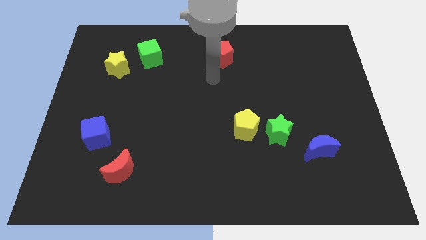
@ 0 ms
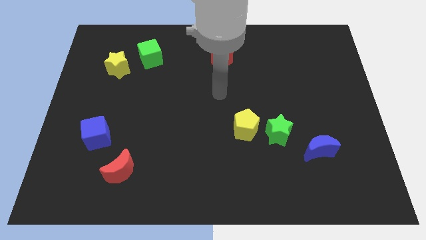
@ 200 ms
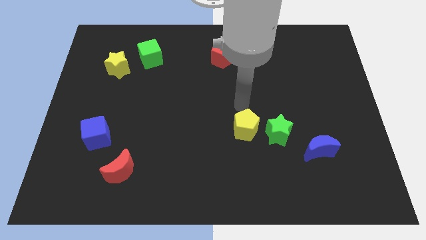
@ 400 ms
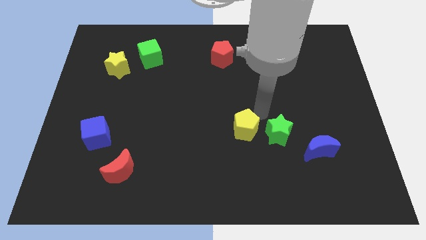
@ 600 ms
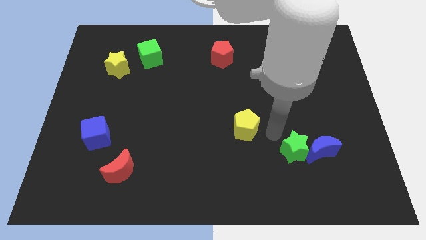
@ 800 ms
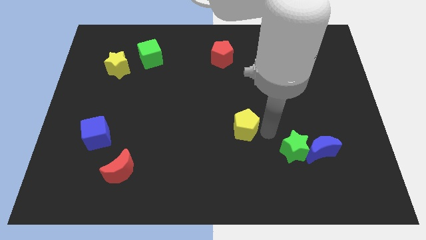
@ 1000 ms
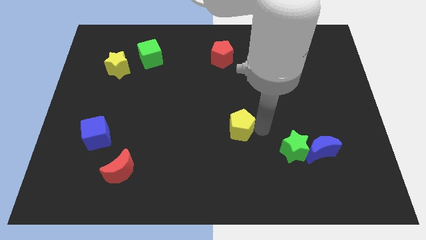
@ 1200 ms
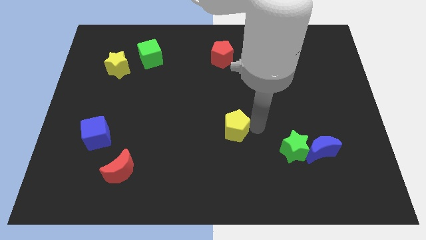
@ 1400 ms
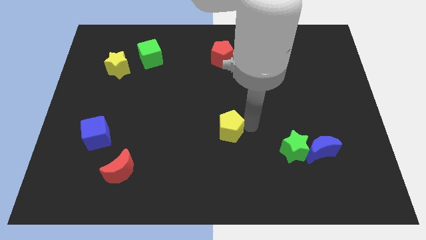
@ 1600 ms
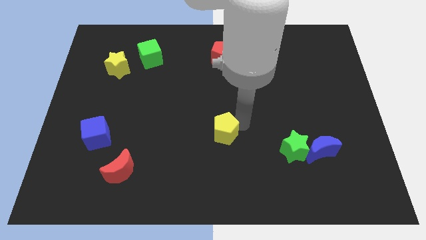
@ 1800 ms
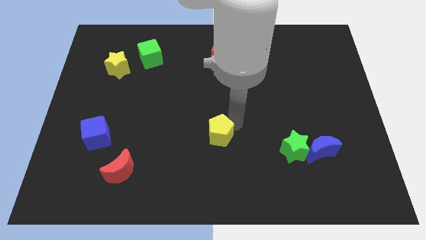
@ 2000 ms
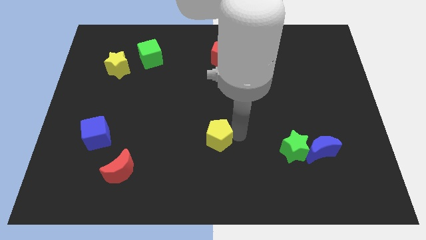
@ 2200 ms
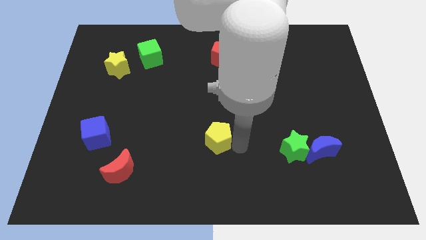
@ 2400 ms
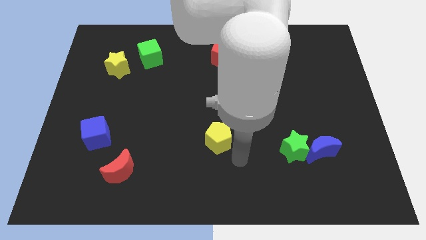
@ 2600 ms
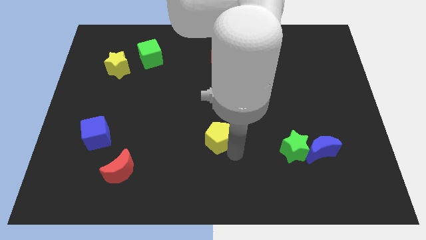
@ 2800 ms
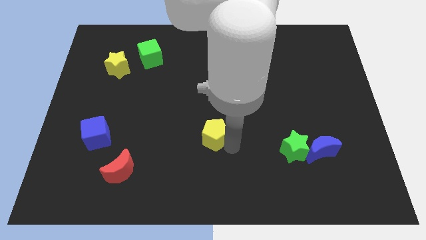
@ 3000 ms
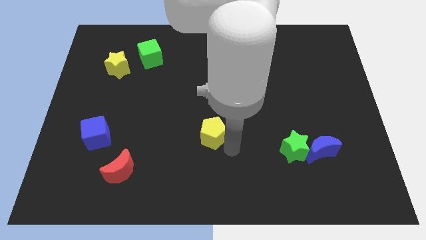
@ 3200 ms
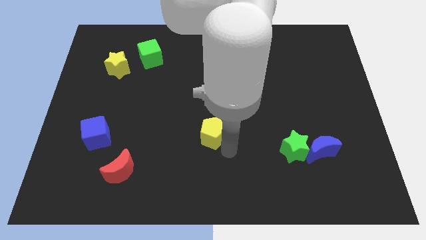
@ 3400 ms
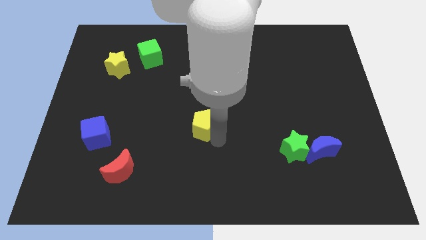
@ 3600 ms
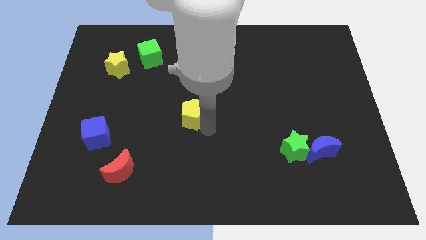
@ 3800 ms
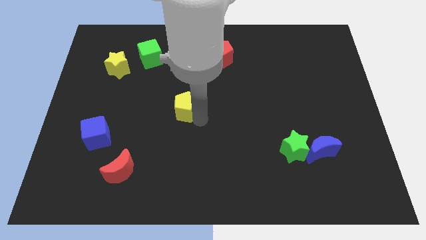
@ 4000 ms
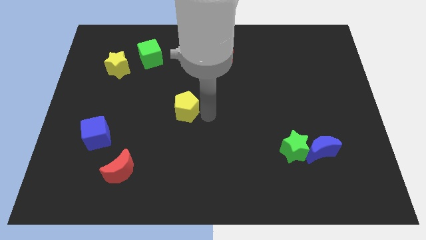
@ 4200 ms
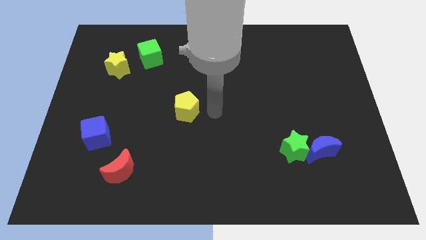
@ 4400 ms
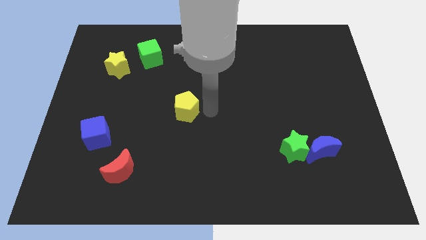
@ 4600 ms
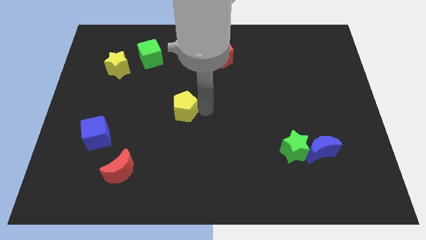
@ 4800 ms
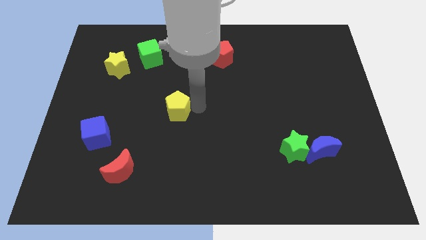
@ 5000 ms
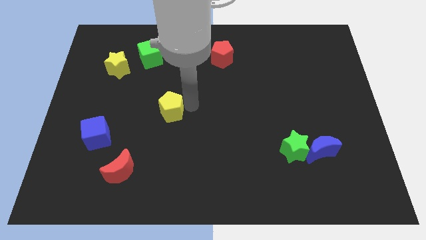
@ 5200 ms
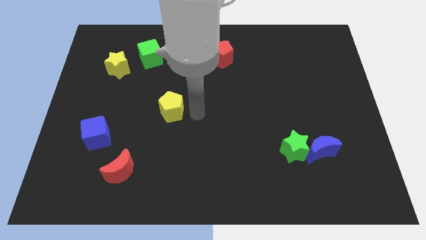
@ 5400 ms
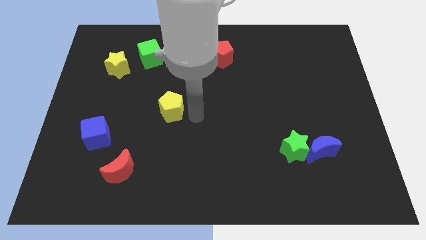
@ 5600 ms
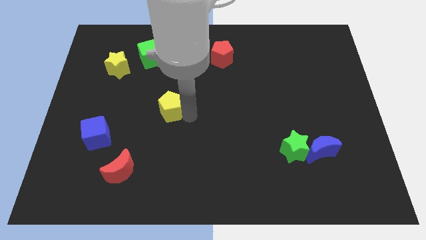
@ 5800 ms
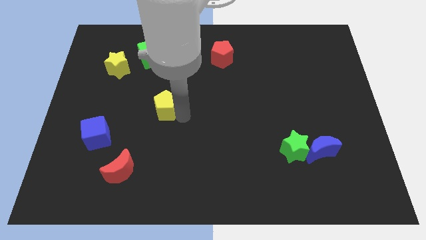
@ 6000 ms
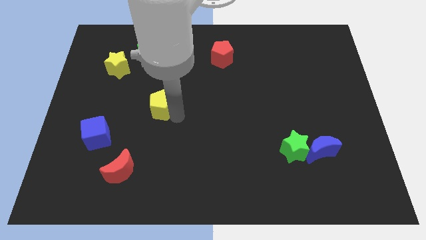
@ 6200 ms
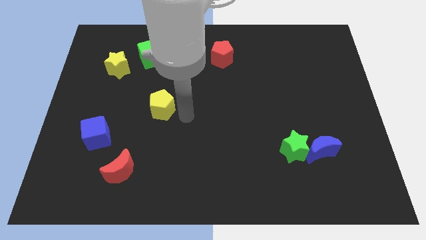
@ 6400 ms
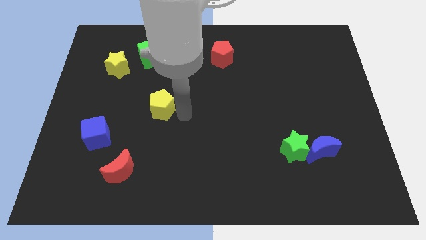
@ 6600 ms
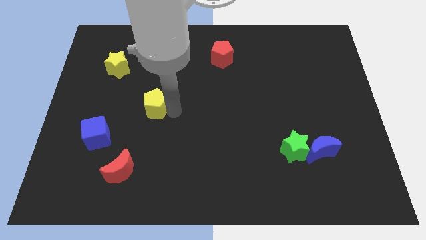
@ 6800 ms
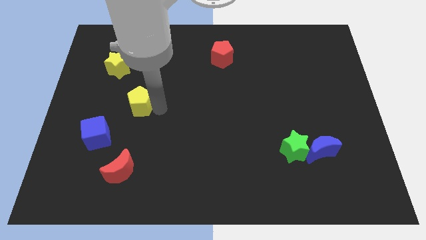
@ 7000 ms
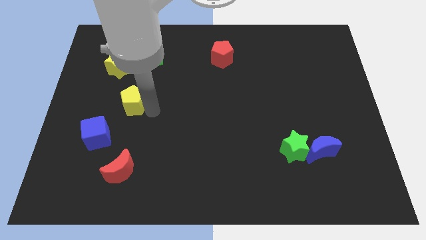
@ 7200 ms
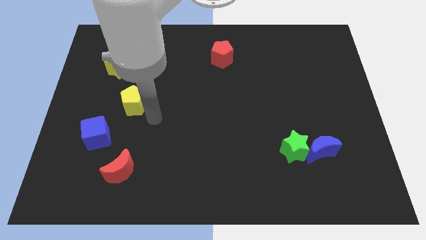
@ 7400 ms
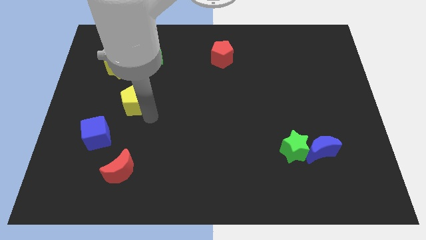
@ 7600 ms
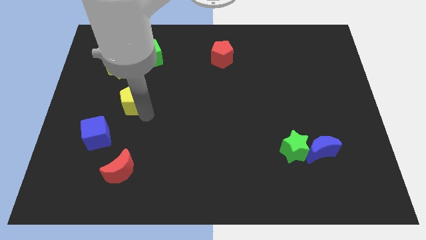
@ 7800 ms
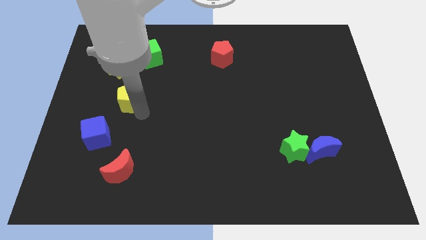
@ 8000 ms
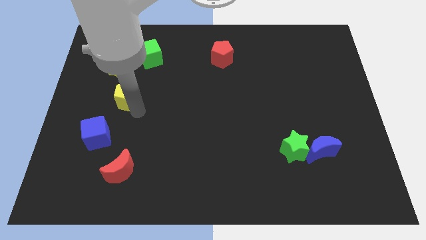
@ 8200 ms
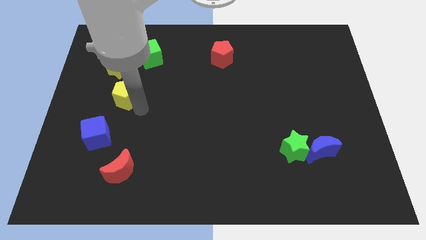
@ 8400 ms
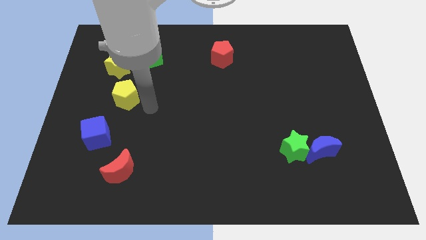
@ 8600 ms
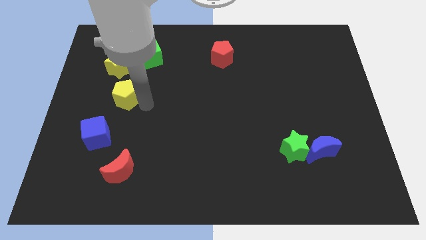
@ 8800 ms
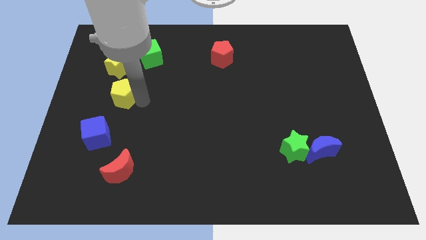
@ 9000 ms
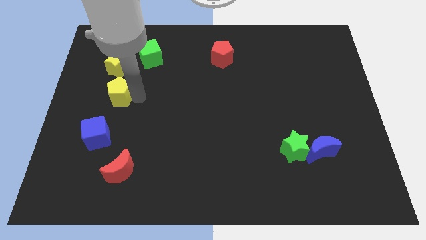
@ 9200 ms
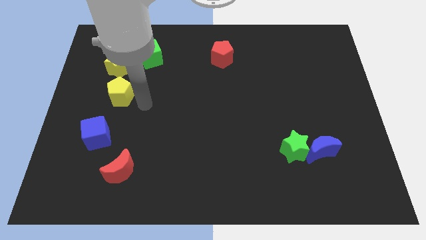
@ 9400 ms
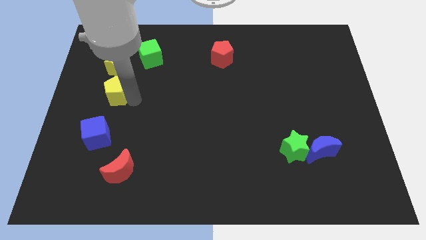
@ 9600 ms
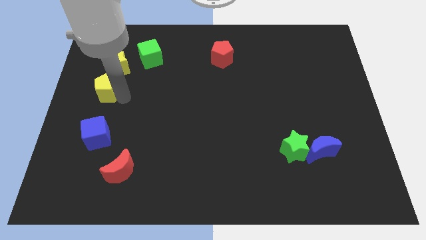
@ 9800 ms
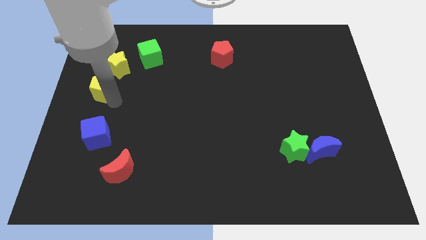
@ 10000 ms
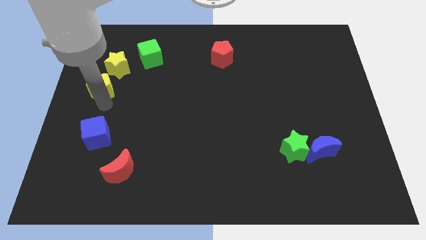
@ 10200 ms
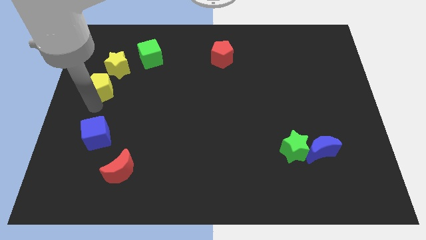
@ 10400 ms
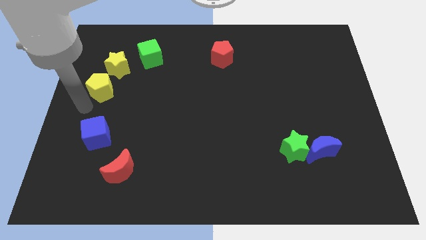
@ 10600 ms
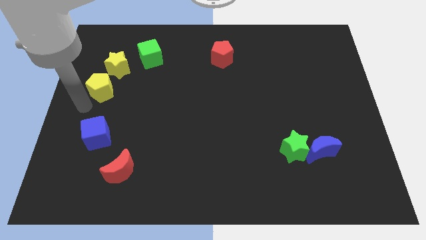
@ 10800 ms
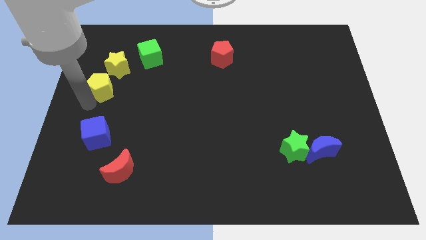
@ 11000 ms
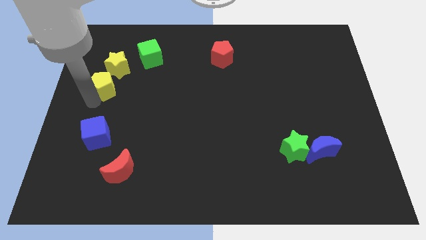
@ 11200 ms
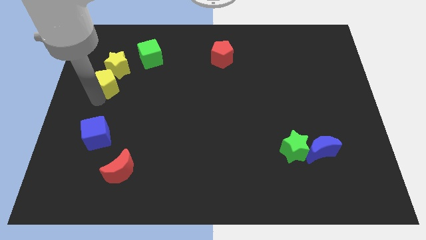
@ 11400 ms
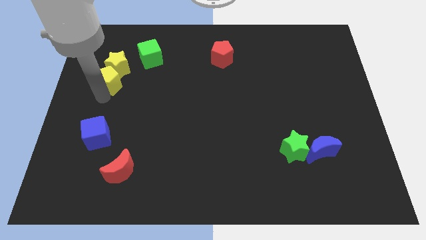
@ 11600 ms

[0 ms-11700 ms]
put the yellow pentagon diagonally down and to the left of the green cube

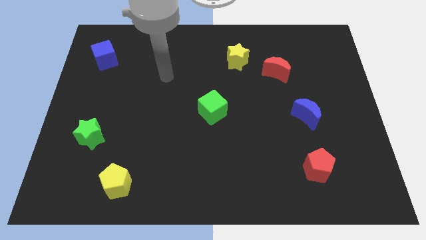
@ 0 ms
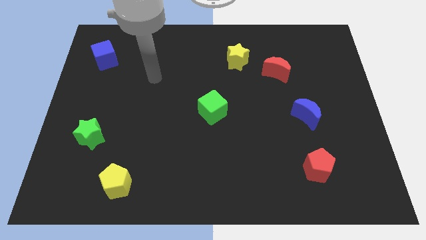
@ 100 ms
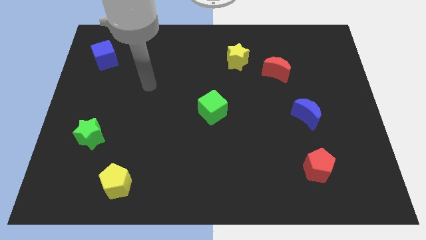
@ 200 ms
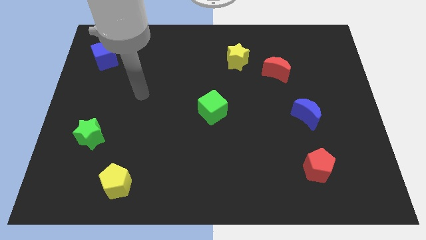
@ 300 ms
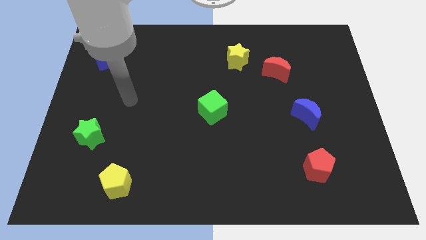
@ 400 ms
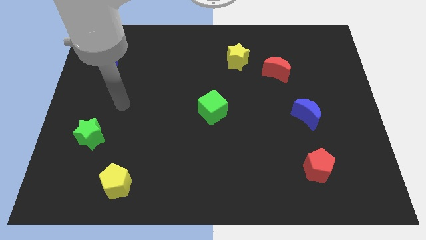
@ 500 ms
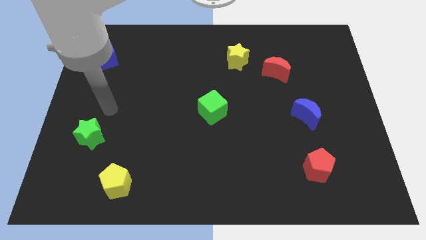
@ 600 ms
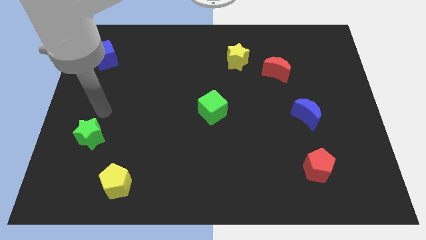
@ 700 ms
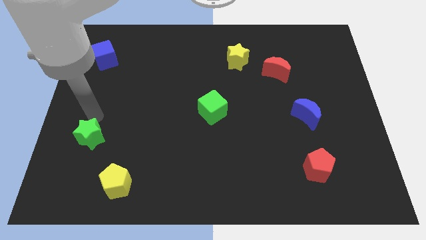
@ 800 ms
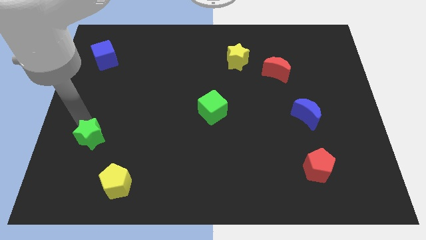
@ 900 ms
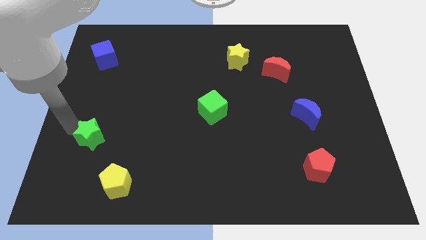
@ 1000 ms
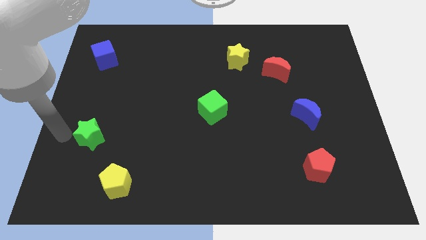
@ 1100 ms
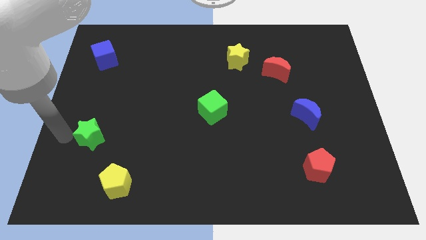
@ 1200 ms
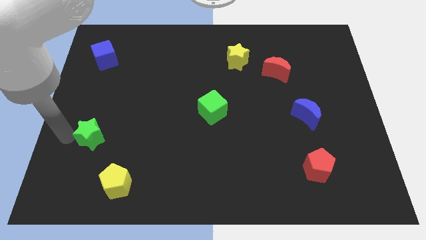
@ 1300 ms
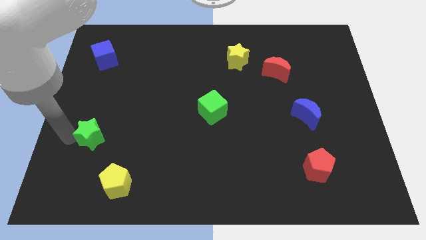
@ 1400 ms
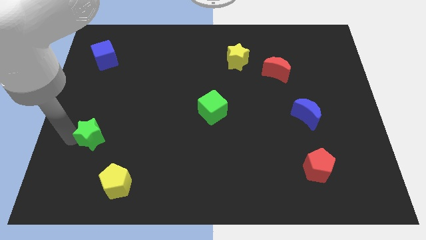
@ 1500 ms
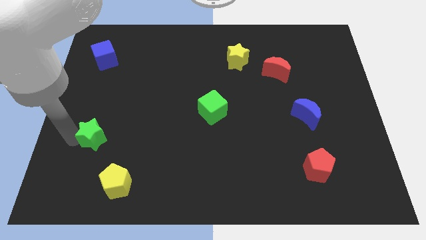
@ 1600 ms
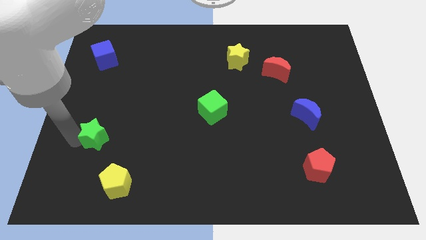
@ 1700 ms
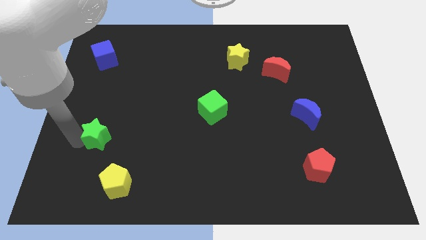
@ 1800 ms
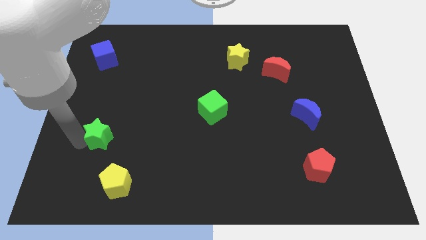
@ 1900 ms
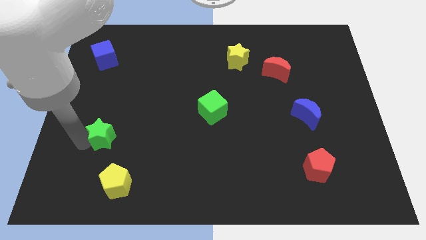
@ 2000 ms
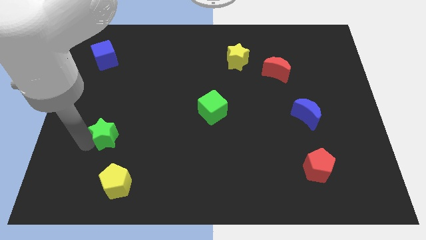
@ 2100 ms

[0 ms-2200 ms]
push the green star to the top side of the yellow pentagon
